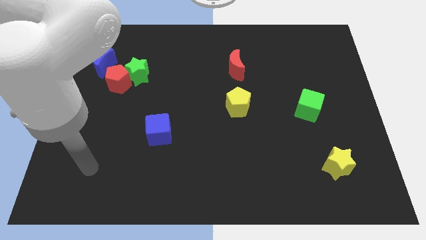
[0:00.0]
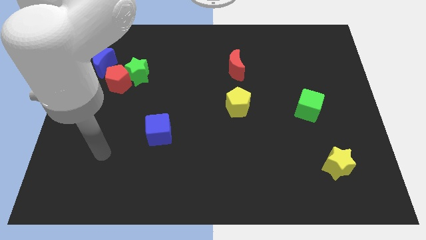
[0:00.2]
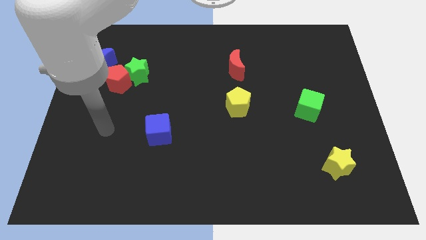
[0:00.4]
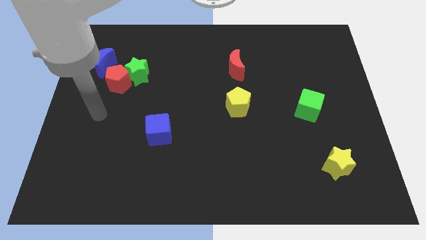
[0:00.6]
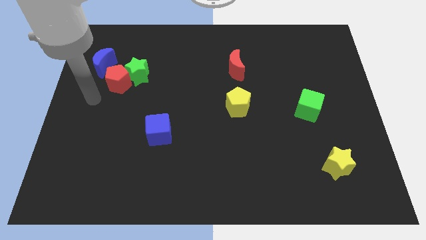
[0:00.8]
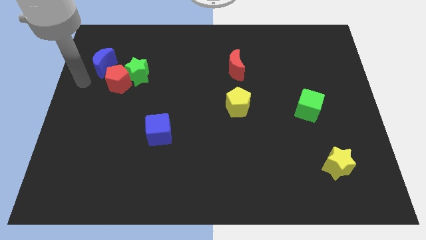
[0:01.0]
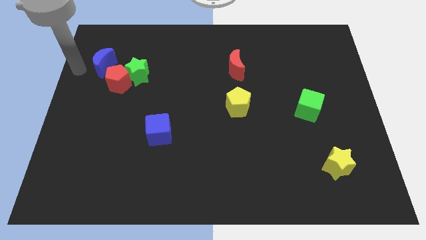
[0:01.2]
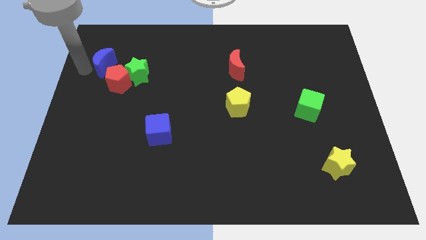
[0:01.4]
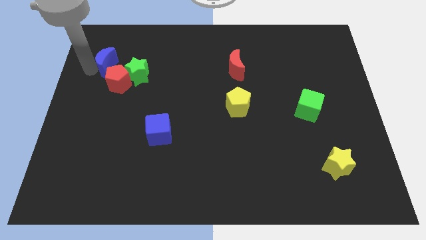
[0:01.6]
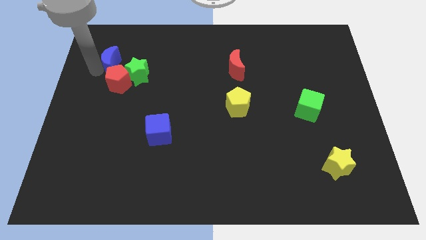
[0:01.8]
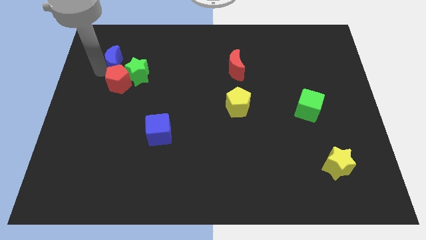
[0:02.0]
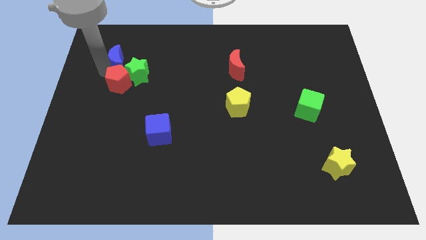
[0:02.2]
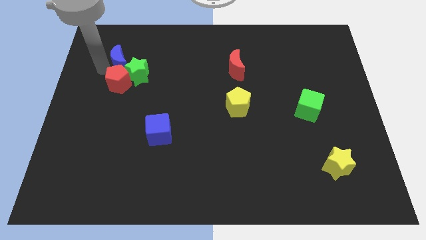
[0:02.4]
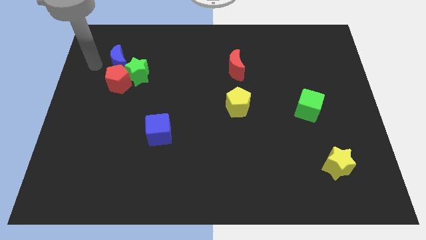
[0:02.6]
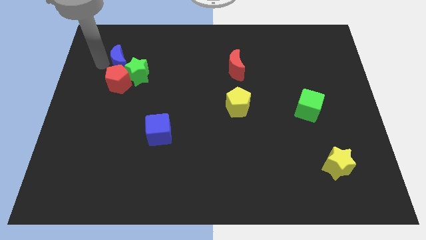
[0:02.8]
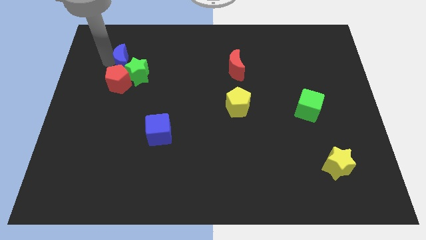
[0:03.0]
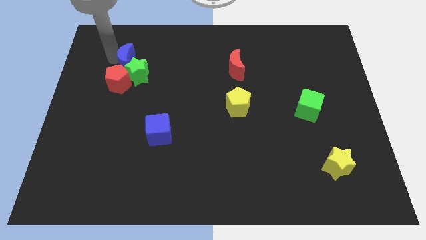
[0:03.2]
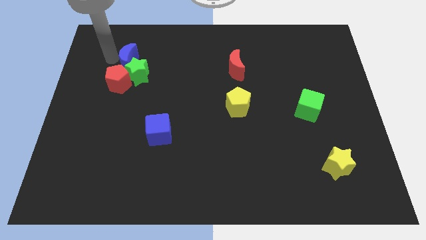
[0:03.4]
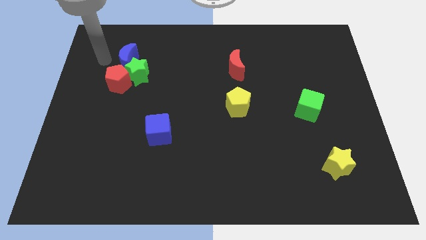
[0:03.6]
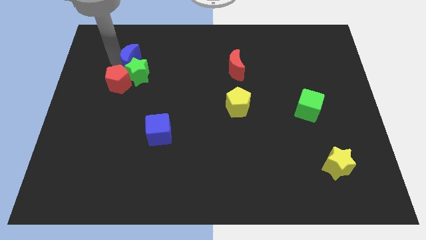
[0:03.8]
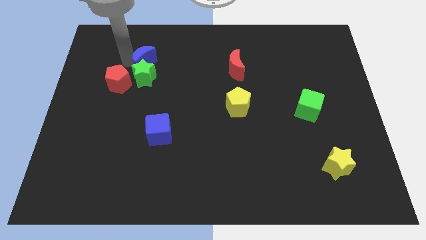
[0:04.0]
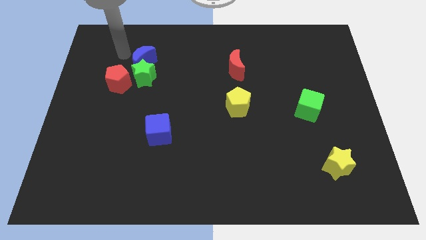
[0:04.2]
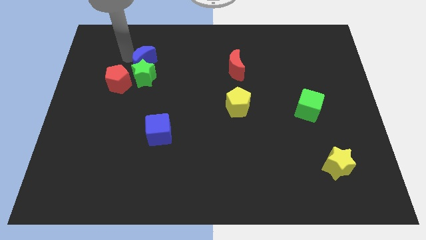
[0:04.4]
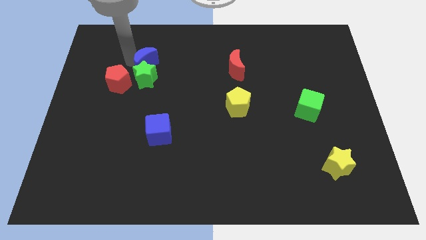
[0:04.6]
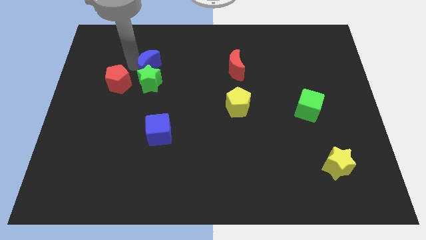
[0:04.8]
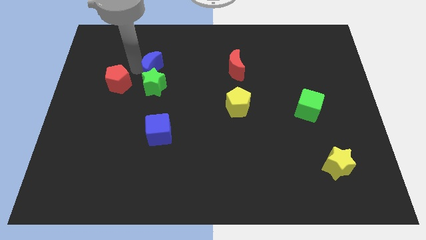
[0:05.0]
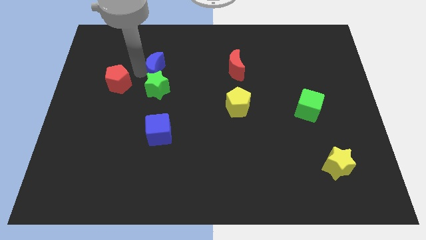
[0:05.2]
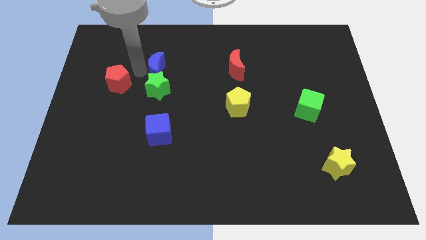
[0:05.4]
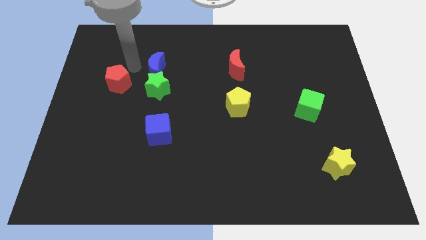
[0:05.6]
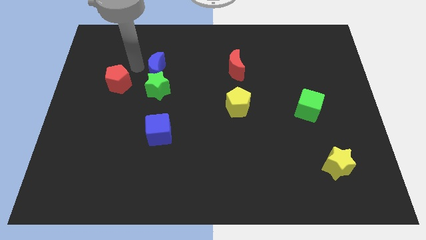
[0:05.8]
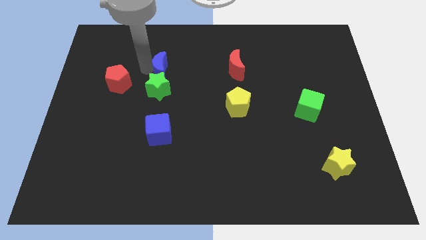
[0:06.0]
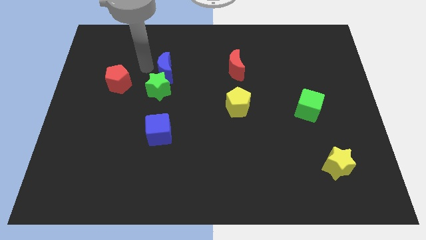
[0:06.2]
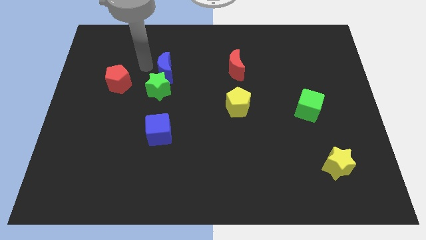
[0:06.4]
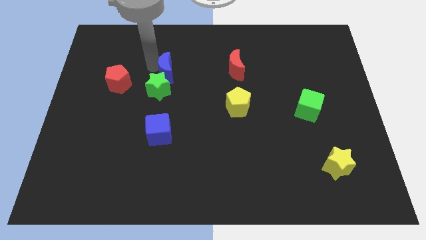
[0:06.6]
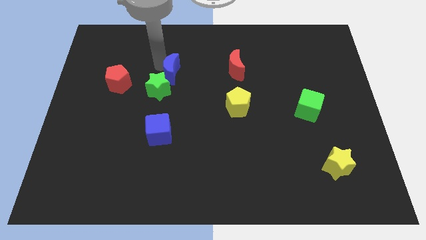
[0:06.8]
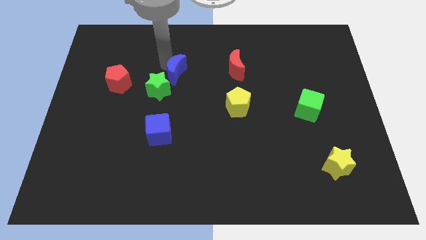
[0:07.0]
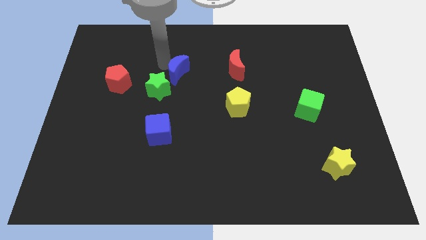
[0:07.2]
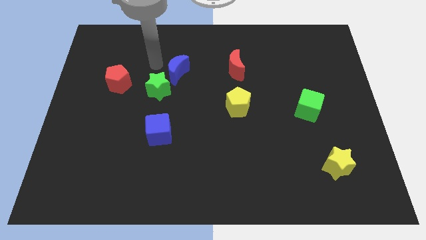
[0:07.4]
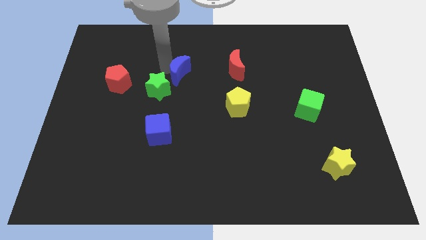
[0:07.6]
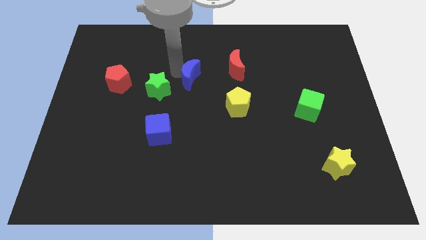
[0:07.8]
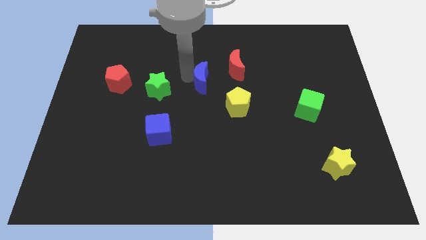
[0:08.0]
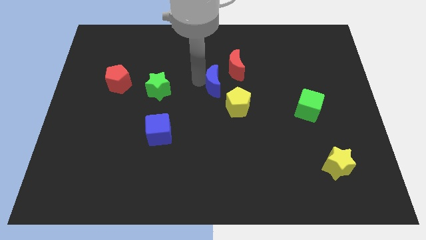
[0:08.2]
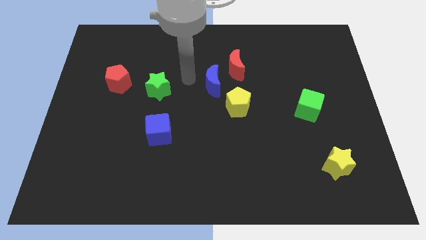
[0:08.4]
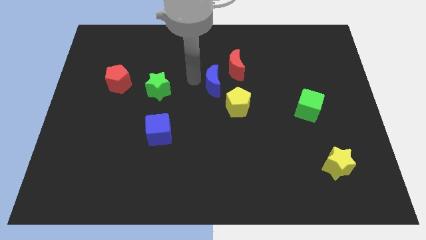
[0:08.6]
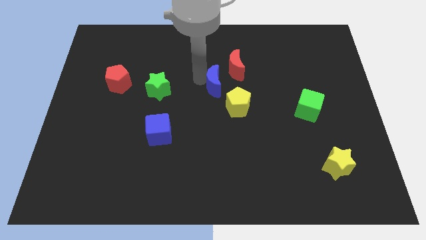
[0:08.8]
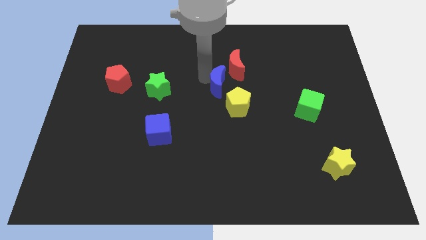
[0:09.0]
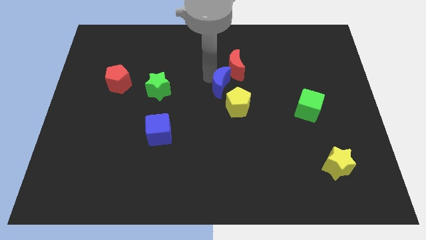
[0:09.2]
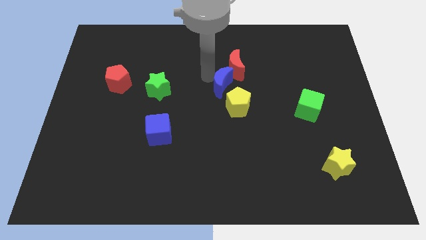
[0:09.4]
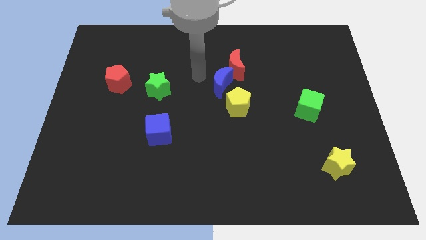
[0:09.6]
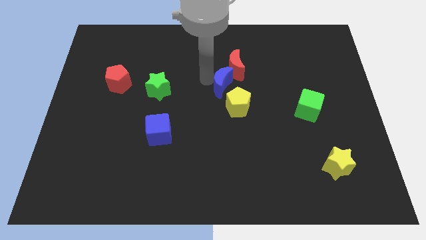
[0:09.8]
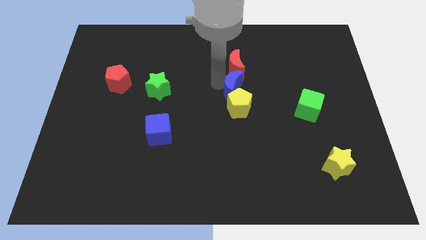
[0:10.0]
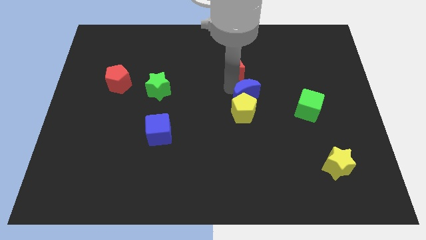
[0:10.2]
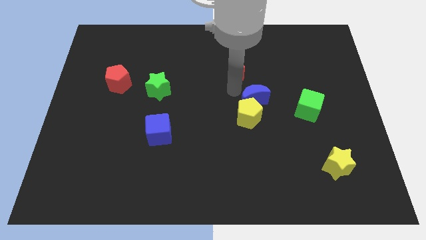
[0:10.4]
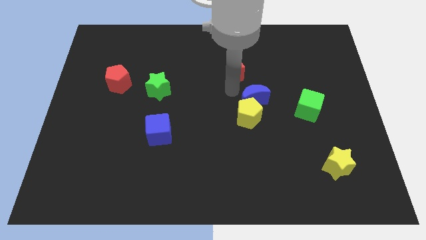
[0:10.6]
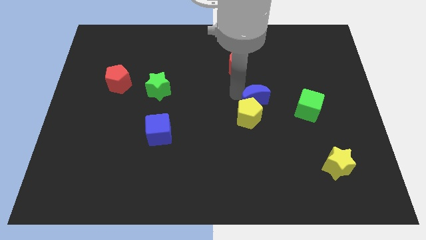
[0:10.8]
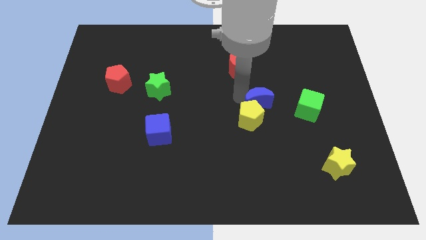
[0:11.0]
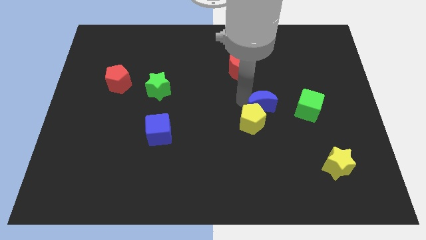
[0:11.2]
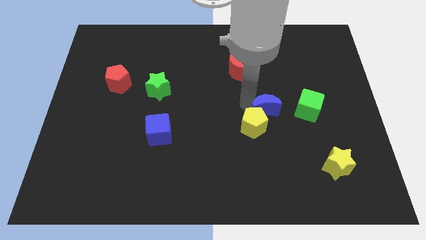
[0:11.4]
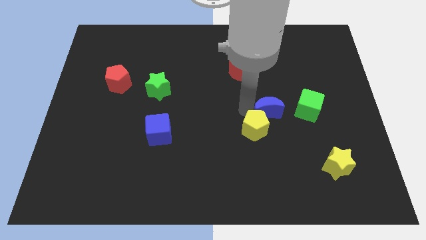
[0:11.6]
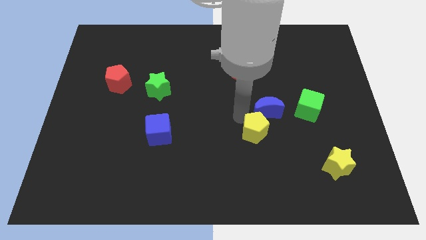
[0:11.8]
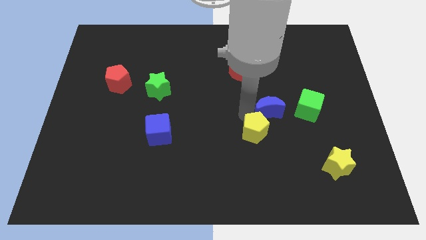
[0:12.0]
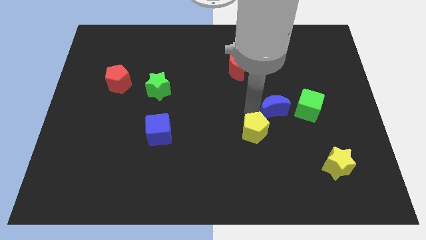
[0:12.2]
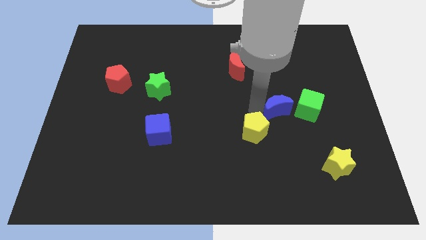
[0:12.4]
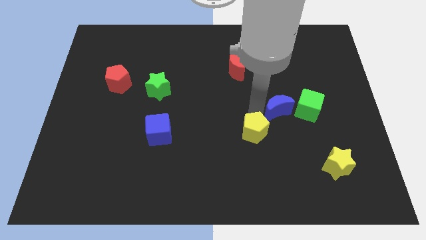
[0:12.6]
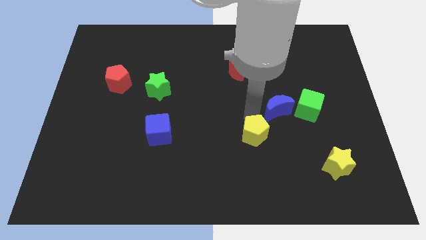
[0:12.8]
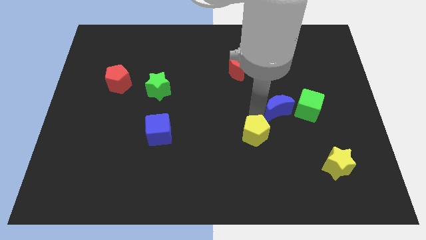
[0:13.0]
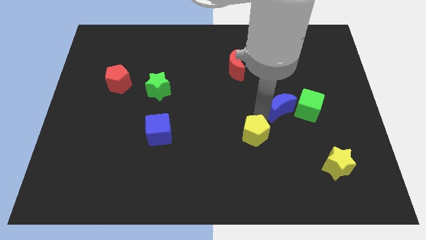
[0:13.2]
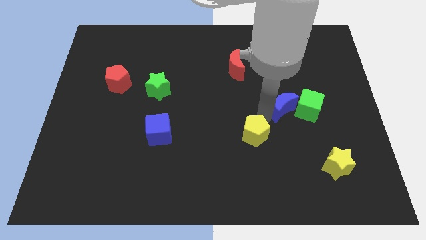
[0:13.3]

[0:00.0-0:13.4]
move the blue moon close to the green cube

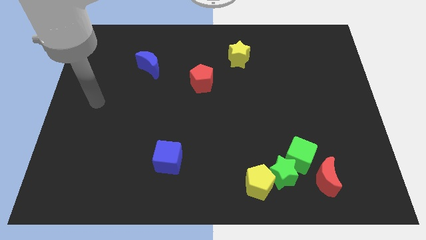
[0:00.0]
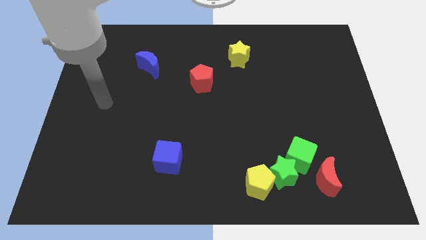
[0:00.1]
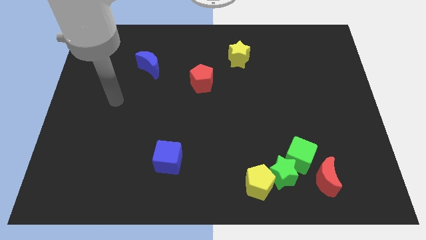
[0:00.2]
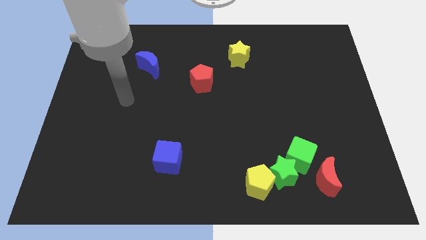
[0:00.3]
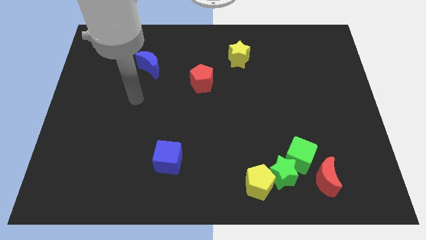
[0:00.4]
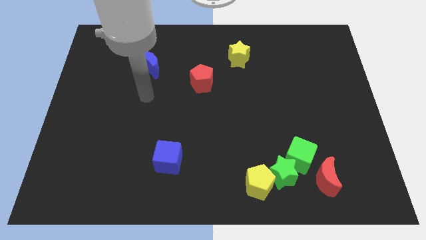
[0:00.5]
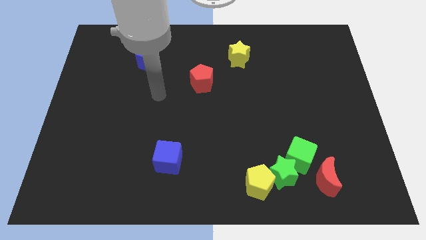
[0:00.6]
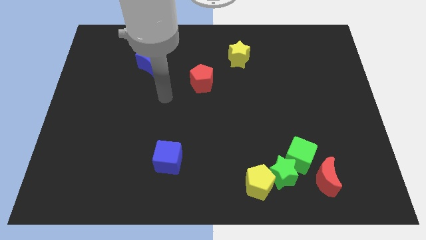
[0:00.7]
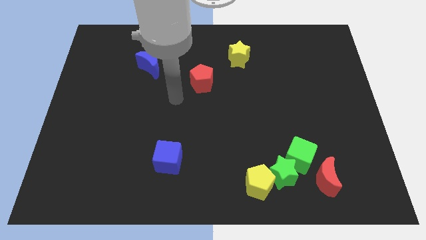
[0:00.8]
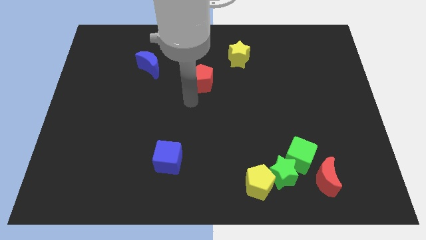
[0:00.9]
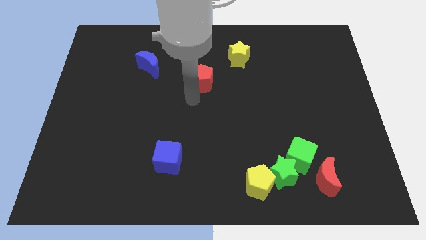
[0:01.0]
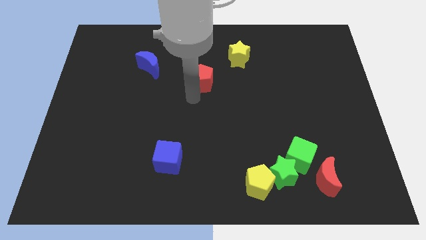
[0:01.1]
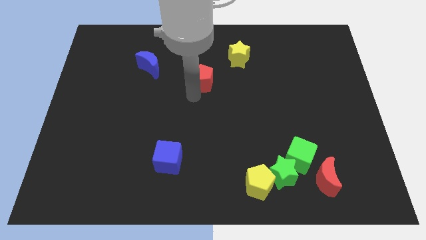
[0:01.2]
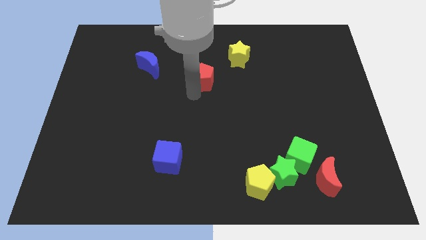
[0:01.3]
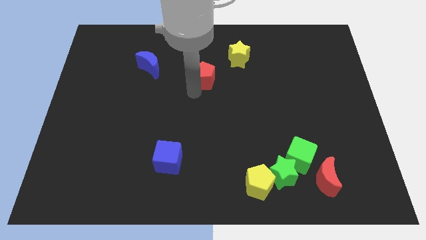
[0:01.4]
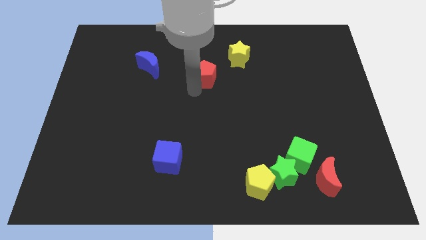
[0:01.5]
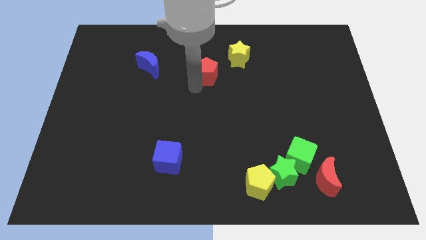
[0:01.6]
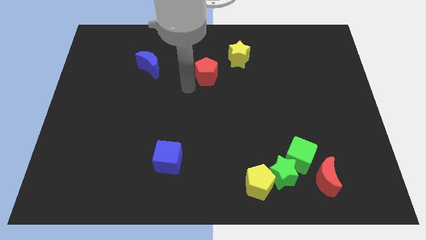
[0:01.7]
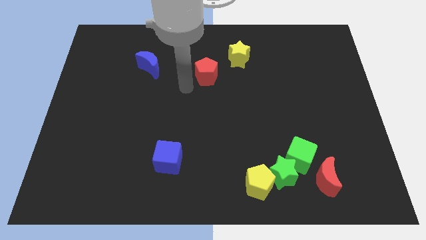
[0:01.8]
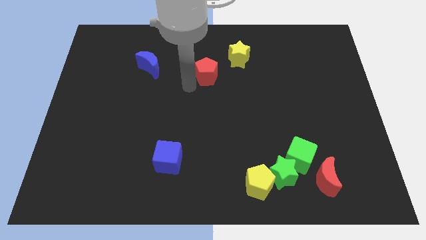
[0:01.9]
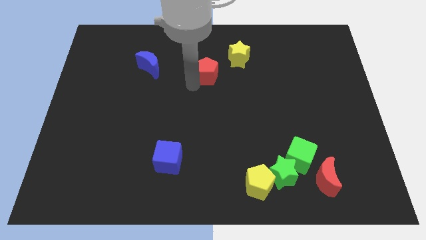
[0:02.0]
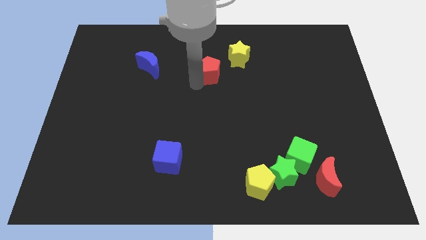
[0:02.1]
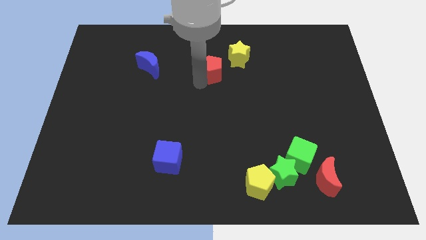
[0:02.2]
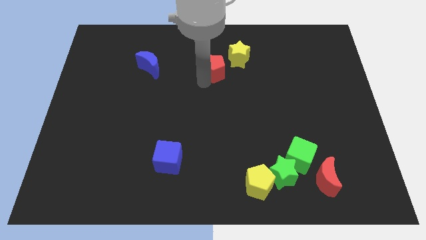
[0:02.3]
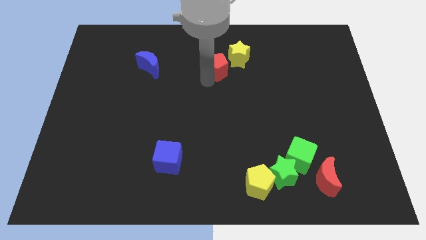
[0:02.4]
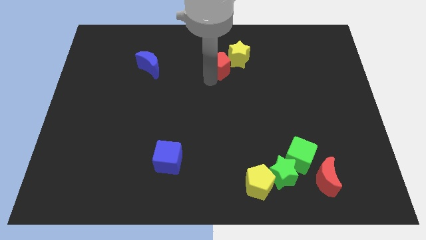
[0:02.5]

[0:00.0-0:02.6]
move the red pentagon next to the yellow star
